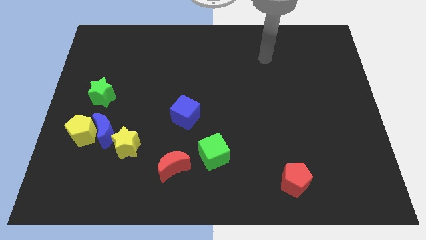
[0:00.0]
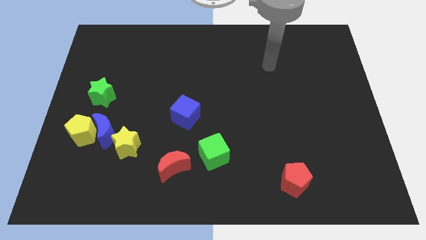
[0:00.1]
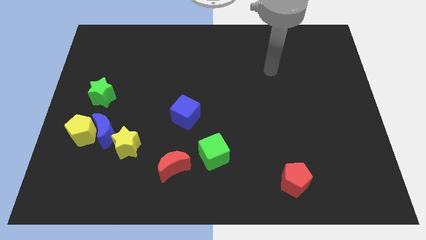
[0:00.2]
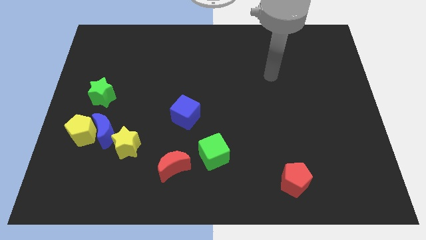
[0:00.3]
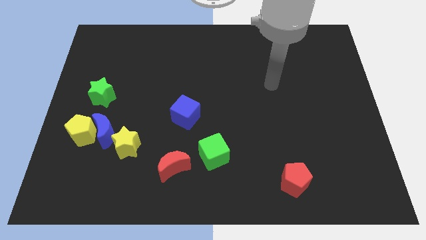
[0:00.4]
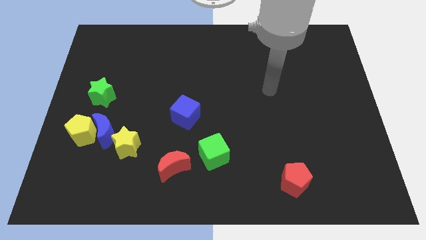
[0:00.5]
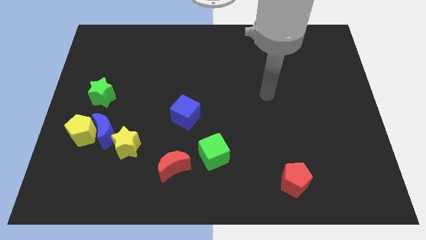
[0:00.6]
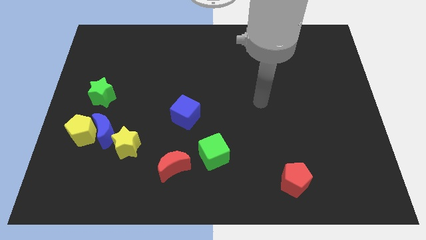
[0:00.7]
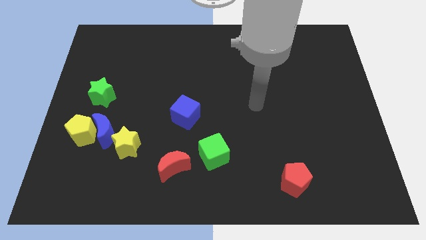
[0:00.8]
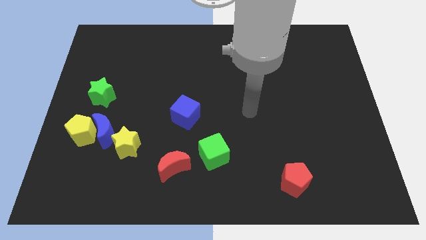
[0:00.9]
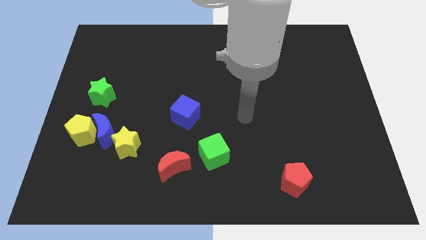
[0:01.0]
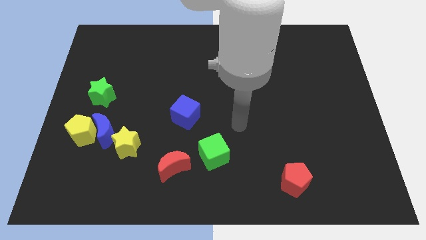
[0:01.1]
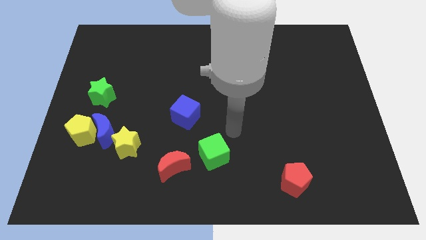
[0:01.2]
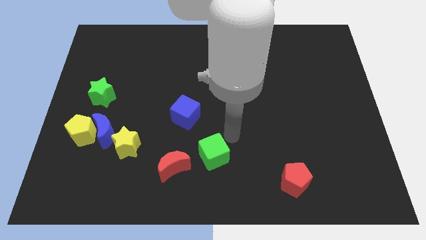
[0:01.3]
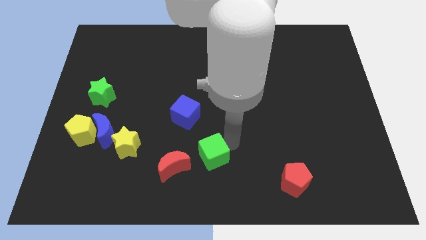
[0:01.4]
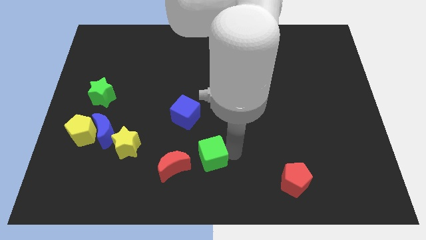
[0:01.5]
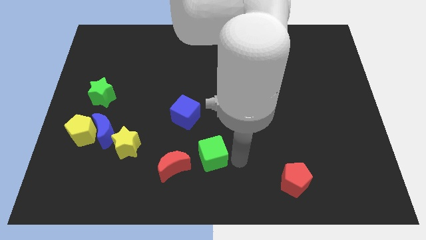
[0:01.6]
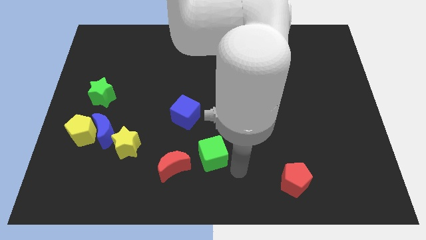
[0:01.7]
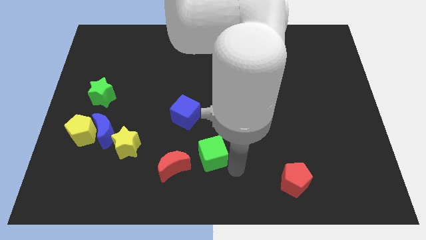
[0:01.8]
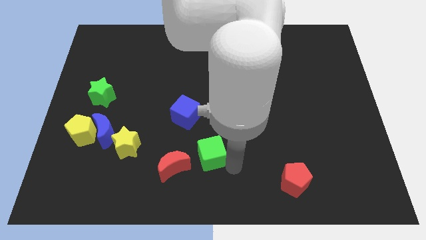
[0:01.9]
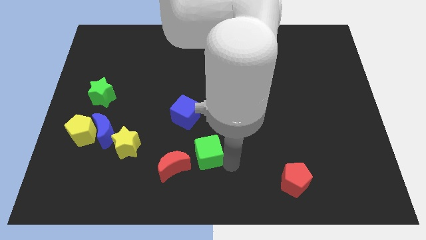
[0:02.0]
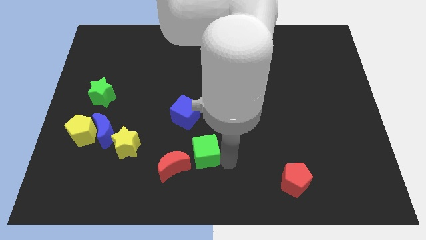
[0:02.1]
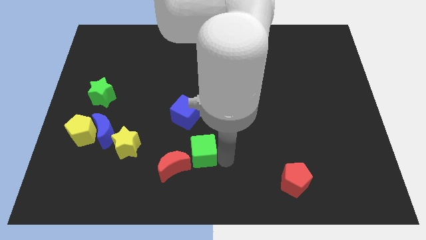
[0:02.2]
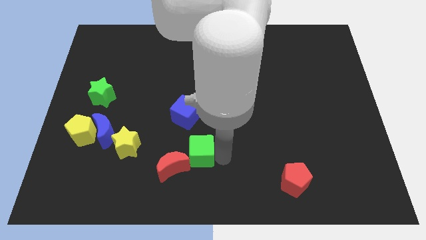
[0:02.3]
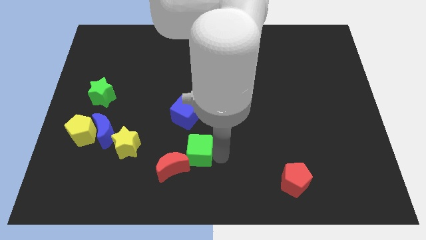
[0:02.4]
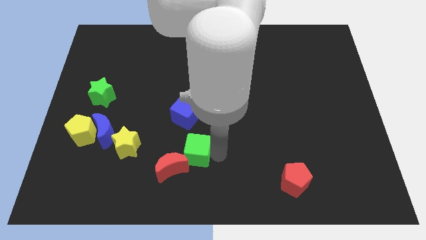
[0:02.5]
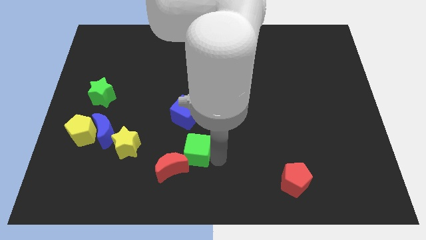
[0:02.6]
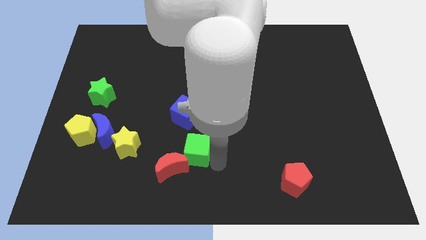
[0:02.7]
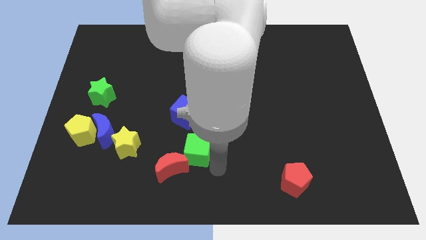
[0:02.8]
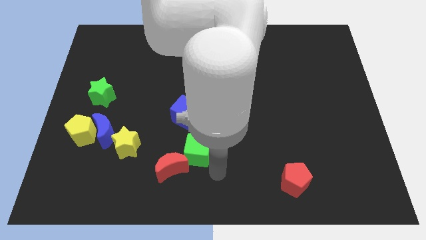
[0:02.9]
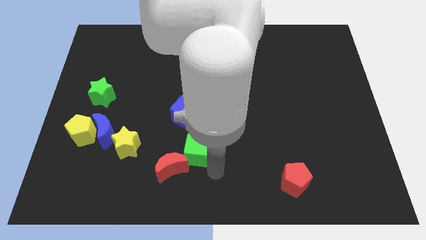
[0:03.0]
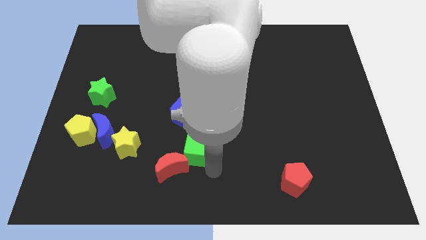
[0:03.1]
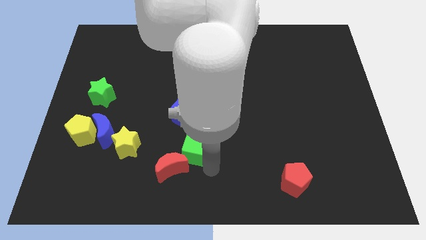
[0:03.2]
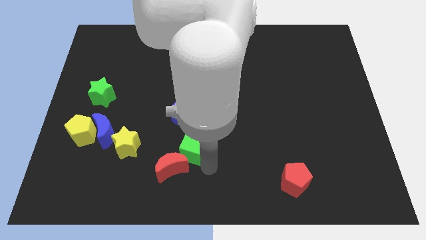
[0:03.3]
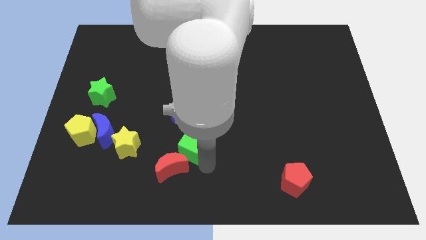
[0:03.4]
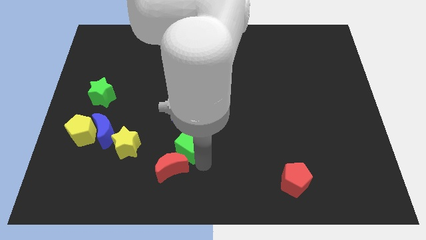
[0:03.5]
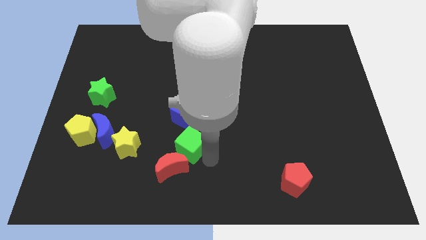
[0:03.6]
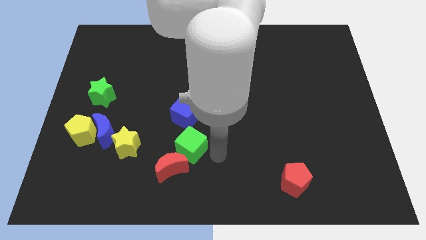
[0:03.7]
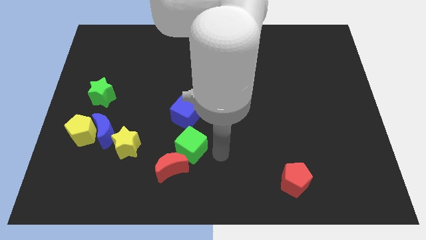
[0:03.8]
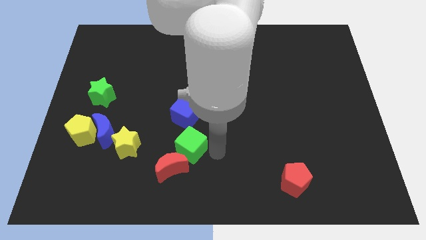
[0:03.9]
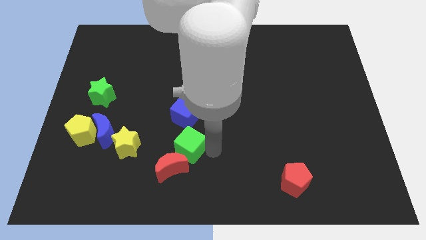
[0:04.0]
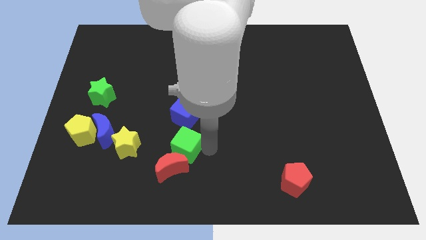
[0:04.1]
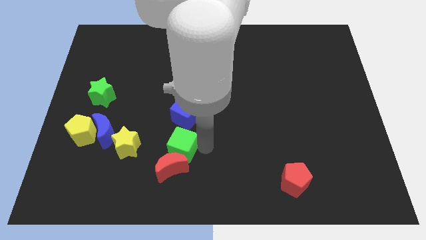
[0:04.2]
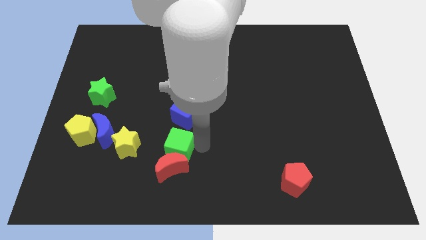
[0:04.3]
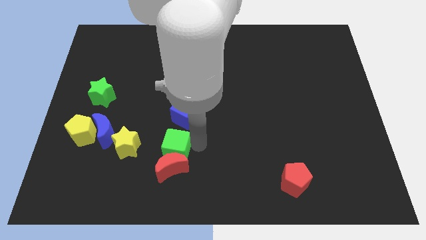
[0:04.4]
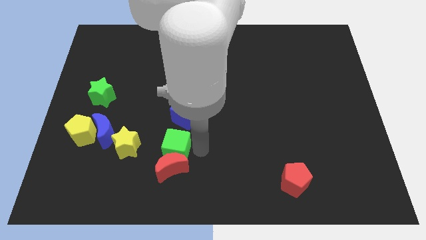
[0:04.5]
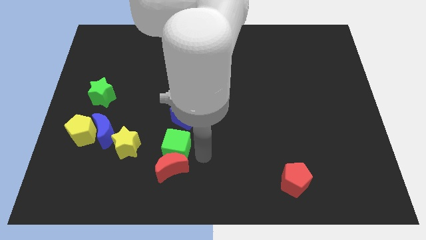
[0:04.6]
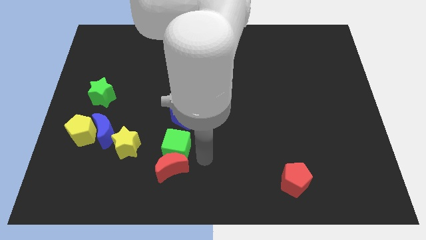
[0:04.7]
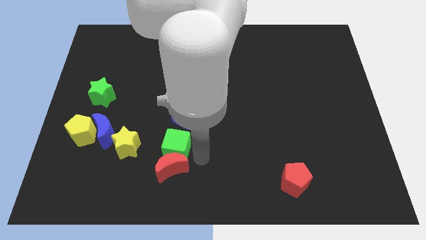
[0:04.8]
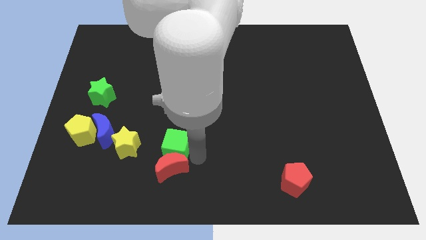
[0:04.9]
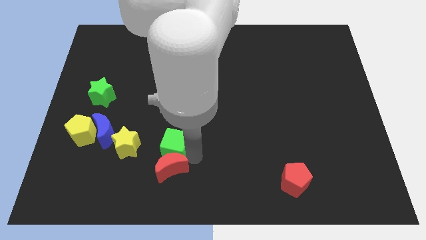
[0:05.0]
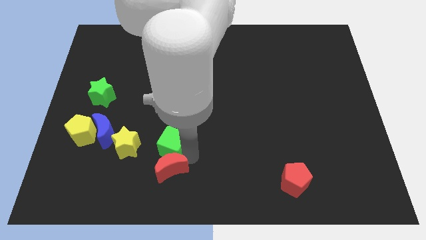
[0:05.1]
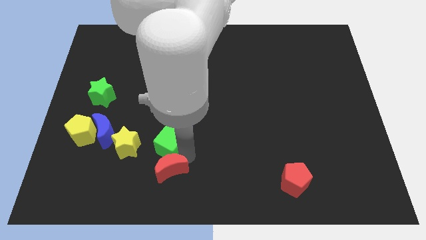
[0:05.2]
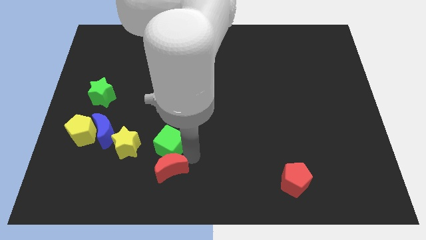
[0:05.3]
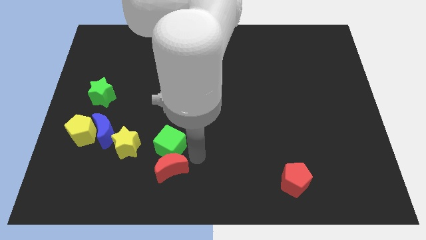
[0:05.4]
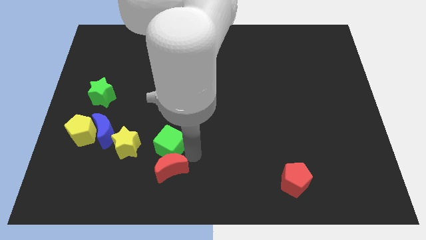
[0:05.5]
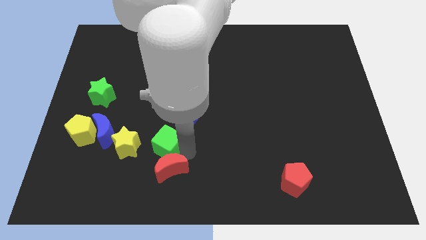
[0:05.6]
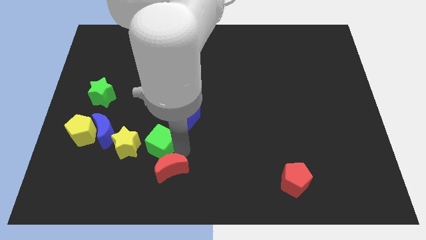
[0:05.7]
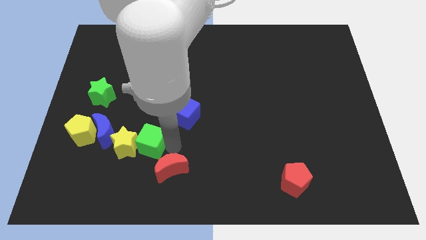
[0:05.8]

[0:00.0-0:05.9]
push the green cube close to the yellow star

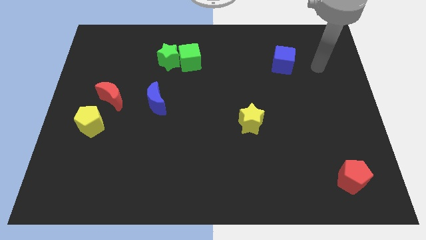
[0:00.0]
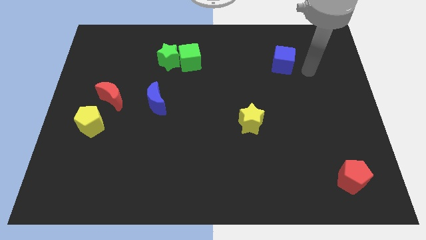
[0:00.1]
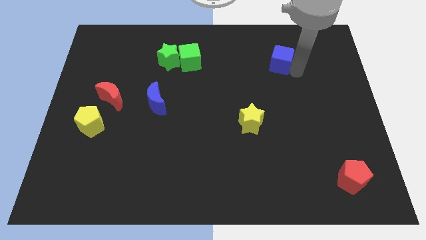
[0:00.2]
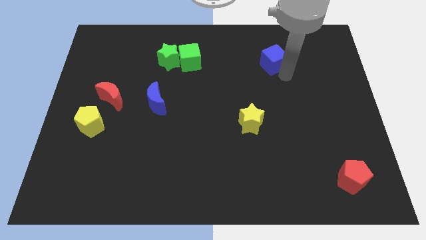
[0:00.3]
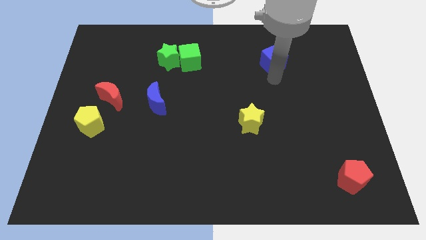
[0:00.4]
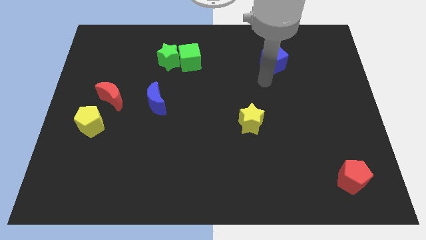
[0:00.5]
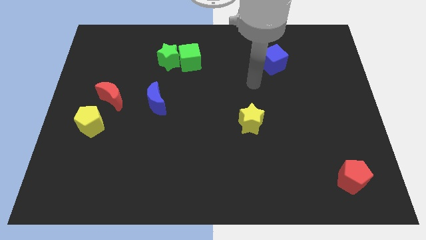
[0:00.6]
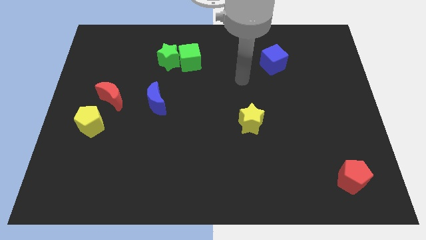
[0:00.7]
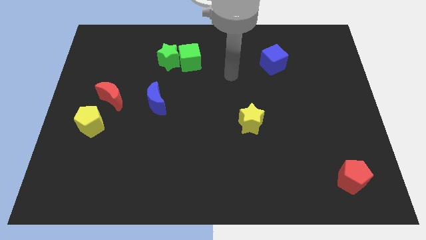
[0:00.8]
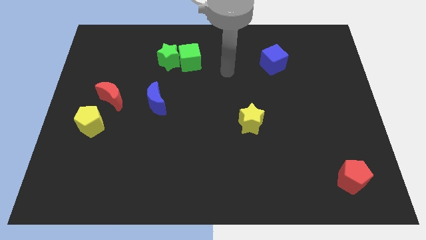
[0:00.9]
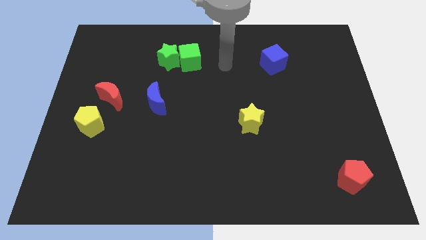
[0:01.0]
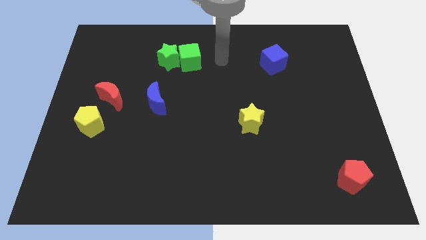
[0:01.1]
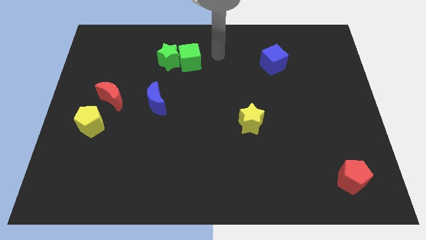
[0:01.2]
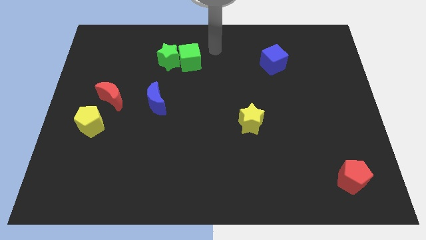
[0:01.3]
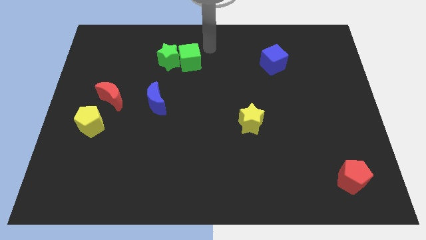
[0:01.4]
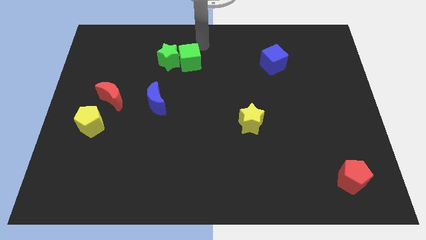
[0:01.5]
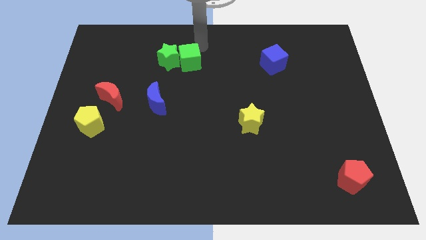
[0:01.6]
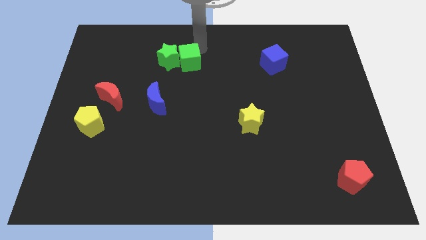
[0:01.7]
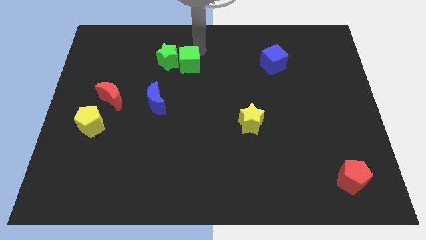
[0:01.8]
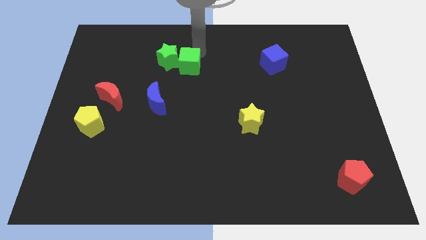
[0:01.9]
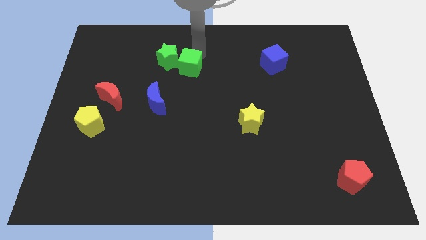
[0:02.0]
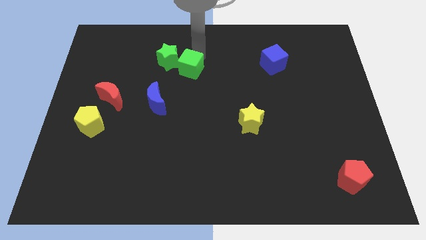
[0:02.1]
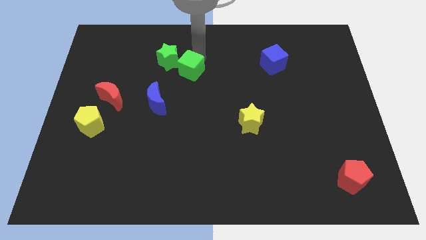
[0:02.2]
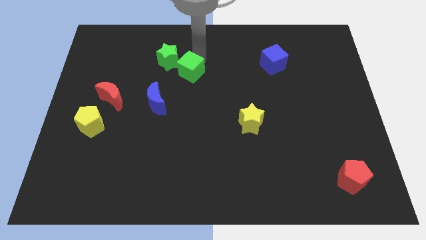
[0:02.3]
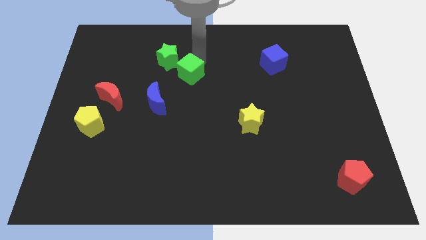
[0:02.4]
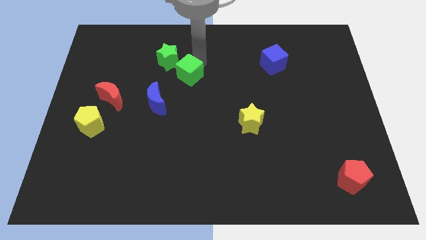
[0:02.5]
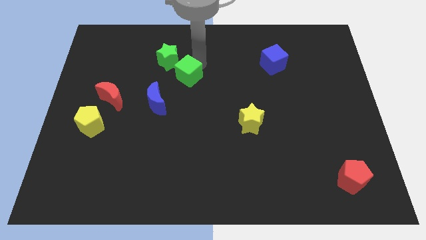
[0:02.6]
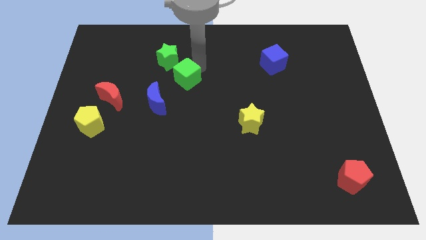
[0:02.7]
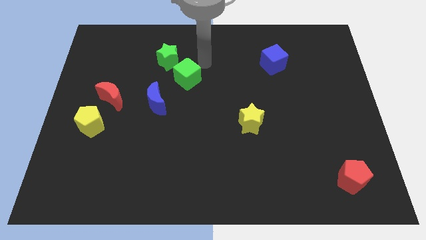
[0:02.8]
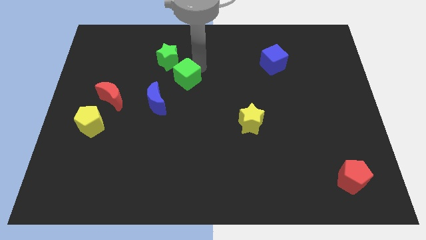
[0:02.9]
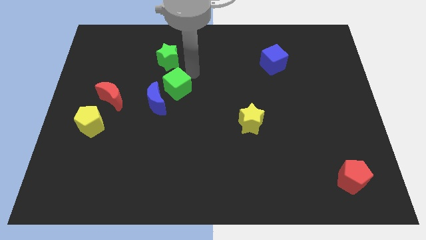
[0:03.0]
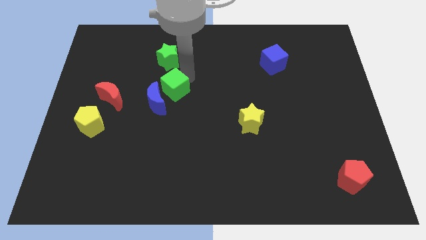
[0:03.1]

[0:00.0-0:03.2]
move the green cube to the blue moon
